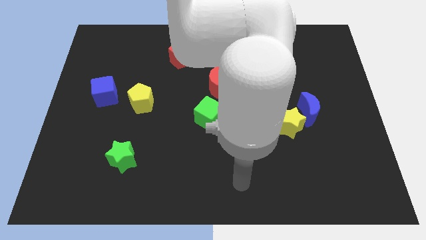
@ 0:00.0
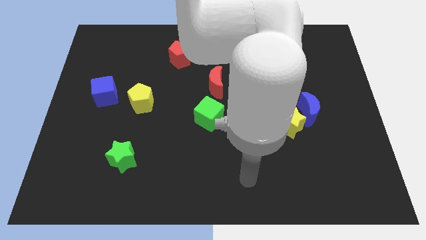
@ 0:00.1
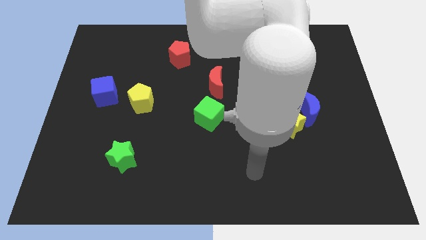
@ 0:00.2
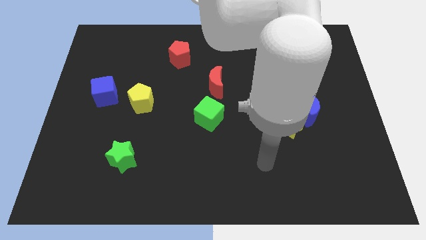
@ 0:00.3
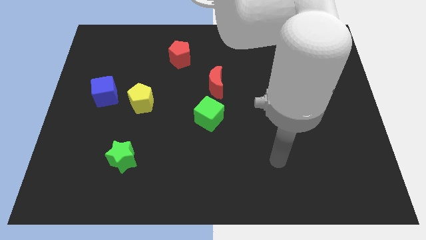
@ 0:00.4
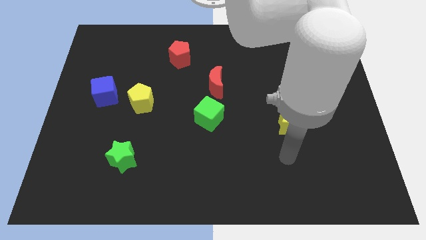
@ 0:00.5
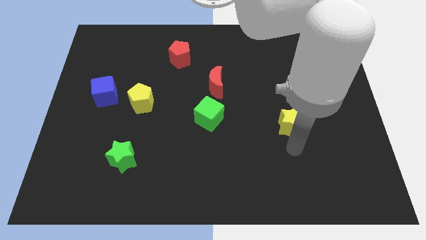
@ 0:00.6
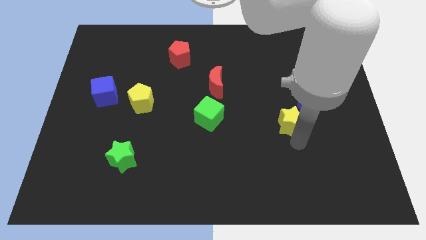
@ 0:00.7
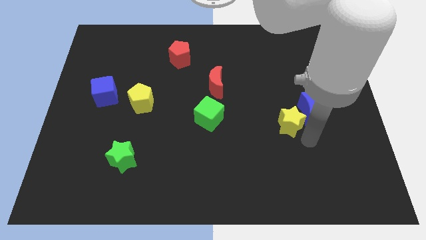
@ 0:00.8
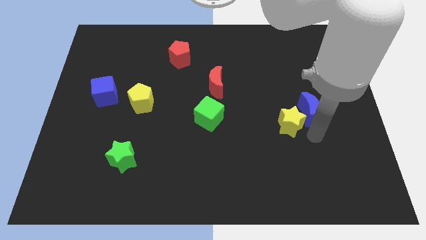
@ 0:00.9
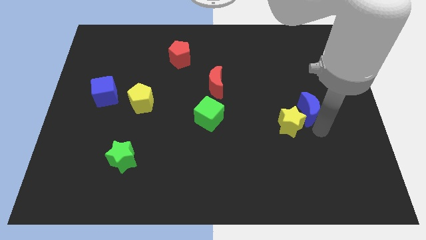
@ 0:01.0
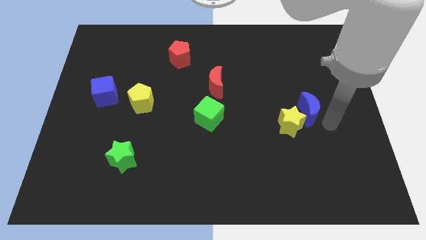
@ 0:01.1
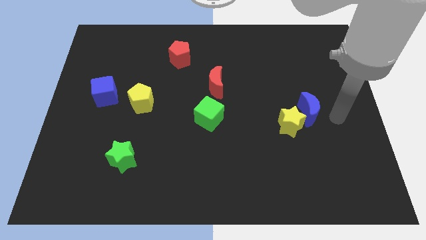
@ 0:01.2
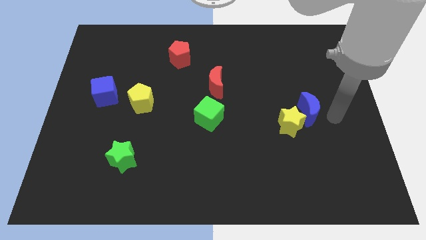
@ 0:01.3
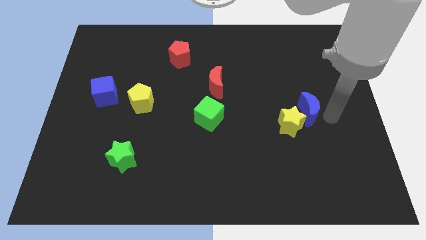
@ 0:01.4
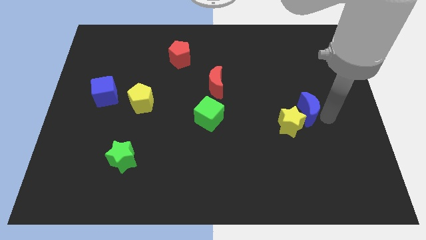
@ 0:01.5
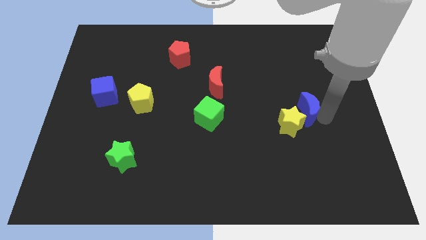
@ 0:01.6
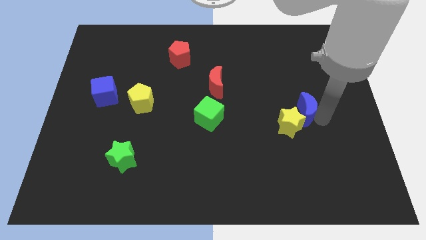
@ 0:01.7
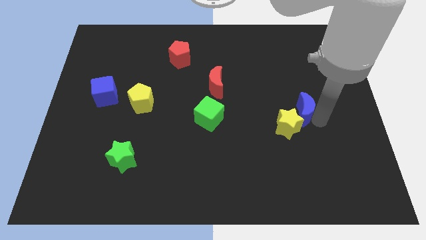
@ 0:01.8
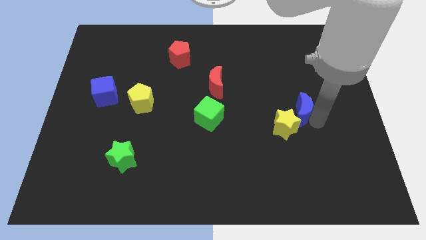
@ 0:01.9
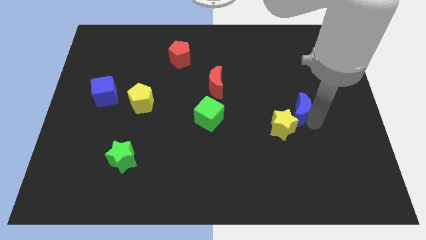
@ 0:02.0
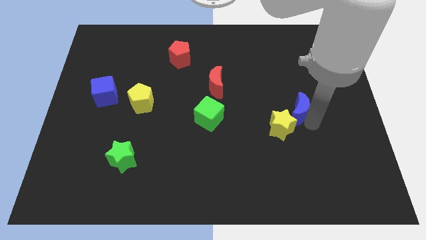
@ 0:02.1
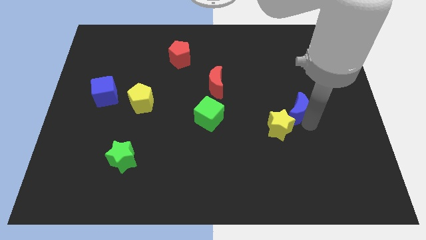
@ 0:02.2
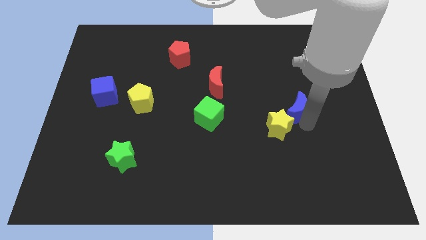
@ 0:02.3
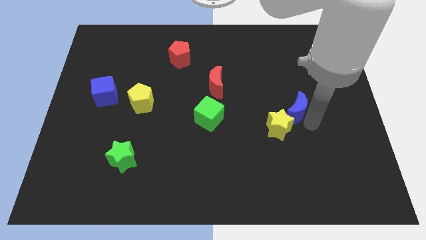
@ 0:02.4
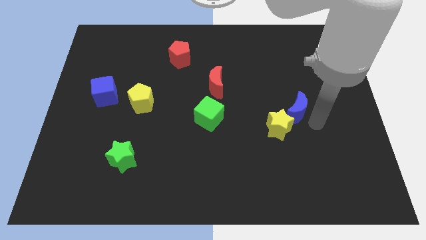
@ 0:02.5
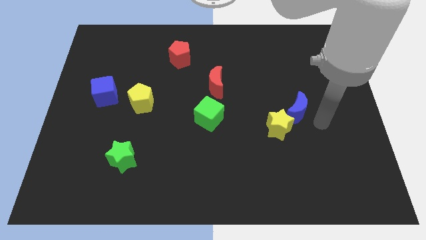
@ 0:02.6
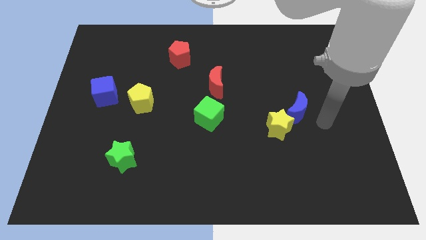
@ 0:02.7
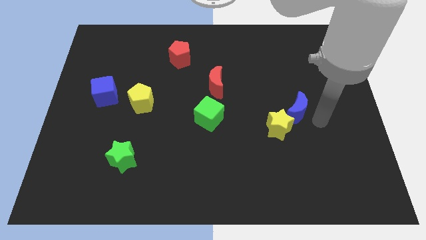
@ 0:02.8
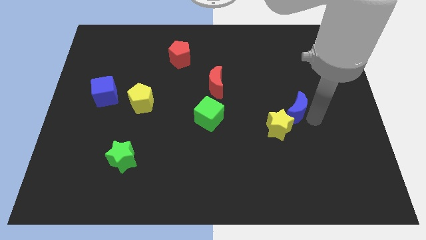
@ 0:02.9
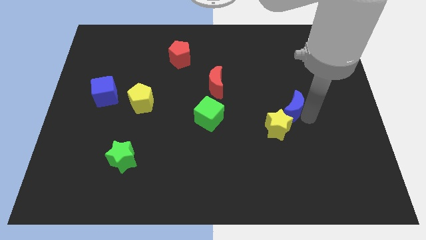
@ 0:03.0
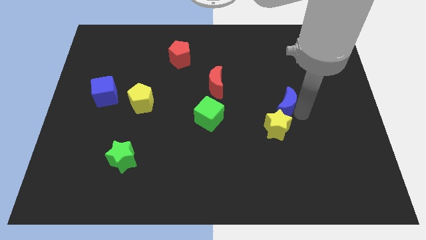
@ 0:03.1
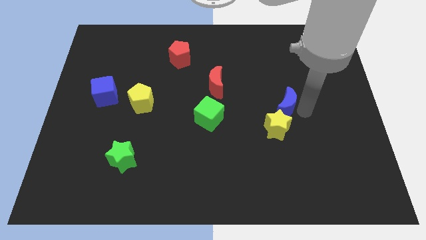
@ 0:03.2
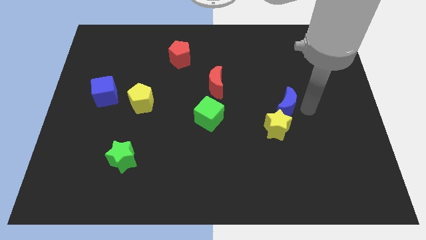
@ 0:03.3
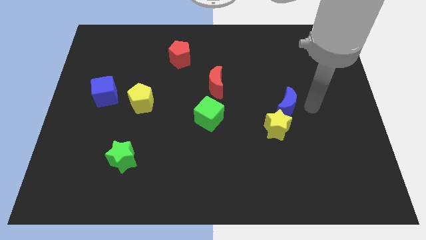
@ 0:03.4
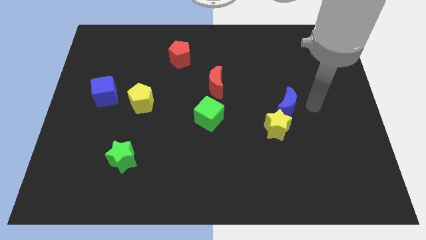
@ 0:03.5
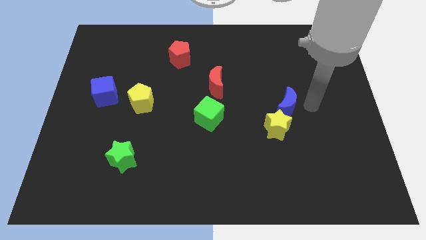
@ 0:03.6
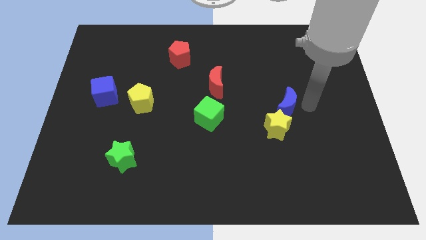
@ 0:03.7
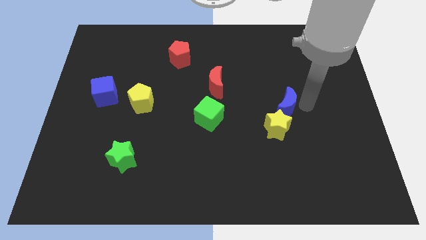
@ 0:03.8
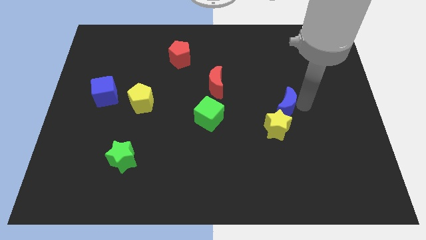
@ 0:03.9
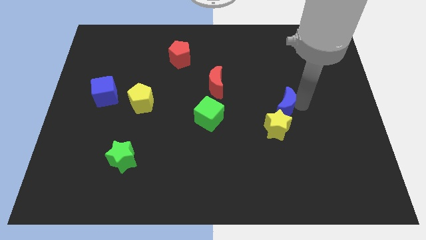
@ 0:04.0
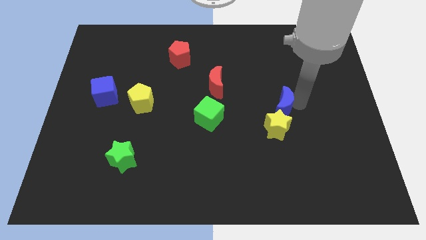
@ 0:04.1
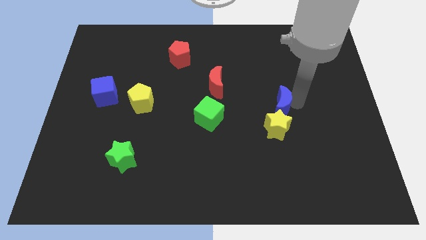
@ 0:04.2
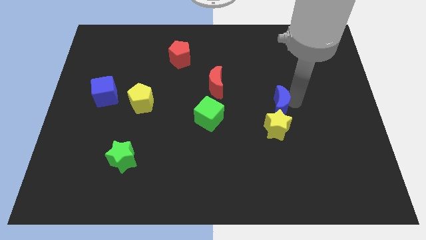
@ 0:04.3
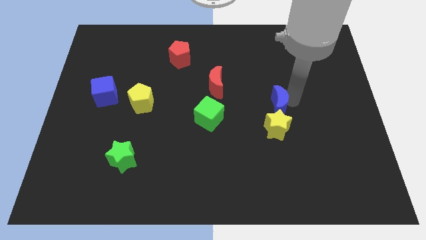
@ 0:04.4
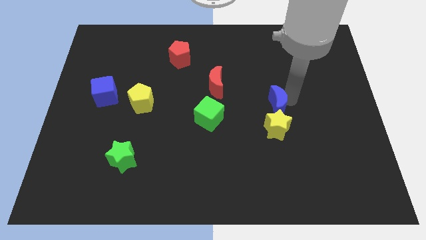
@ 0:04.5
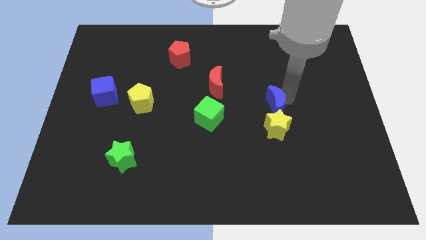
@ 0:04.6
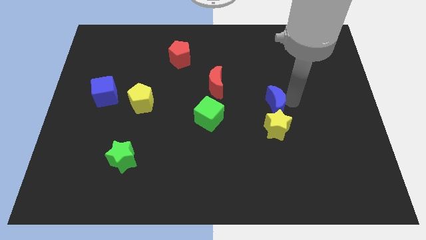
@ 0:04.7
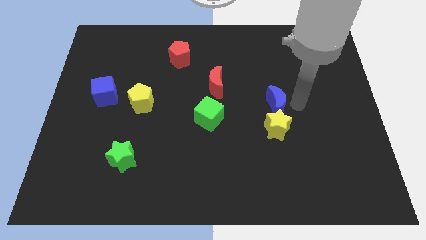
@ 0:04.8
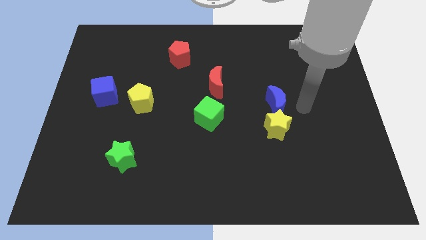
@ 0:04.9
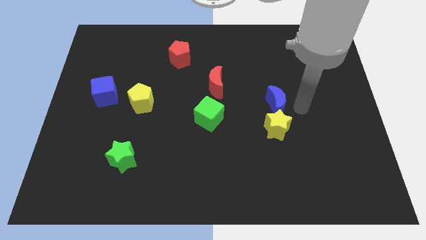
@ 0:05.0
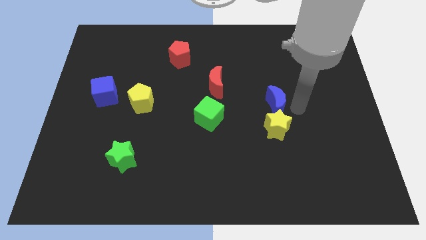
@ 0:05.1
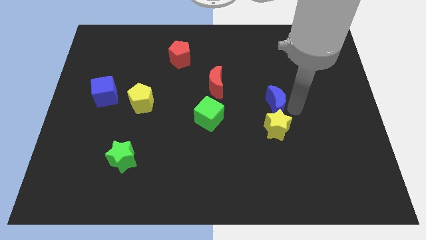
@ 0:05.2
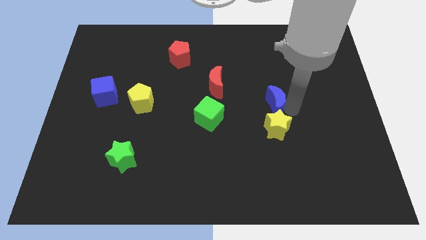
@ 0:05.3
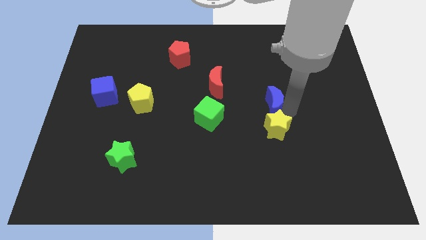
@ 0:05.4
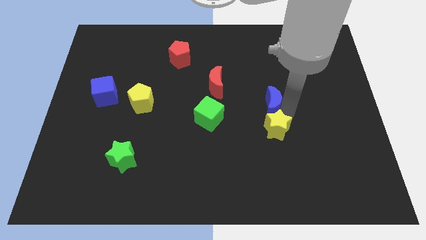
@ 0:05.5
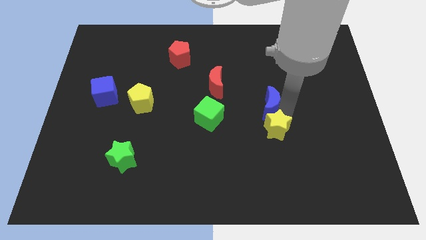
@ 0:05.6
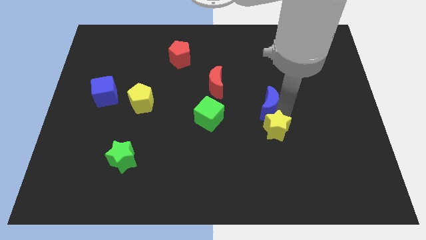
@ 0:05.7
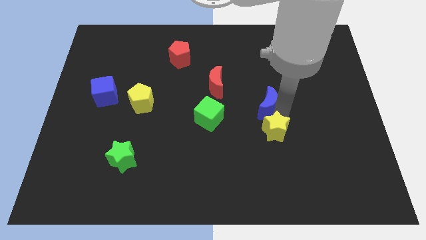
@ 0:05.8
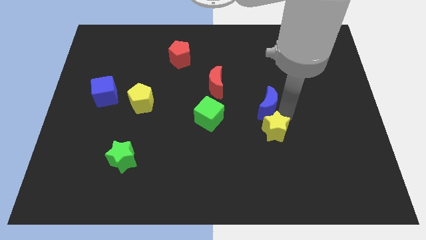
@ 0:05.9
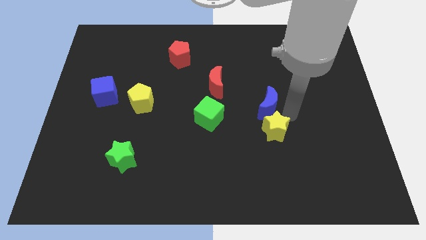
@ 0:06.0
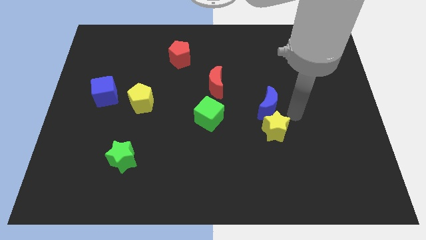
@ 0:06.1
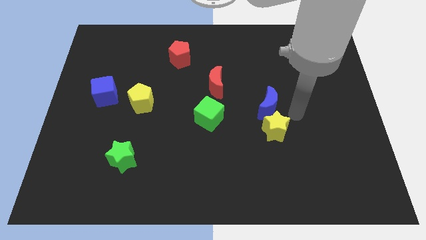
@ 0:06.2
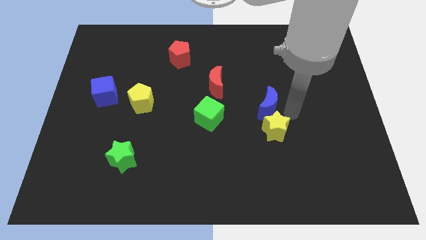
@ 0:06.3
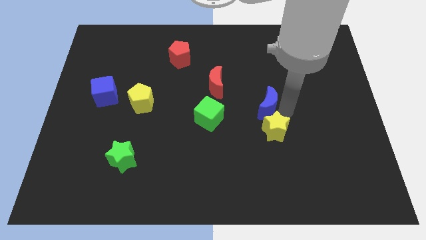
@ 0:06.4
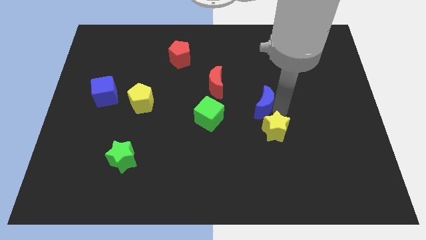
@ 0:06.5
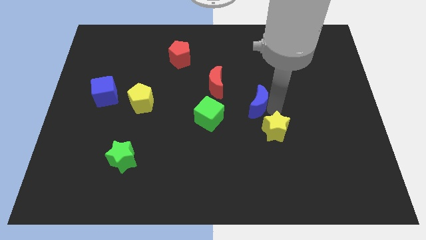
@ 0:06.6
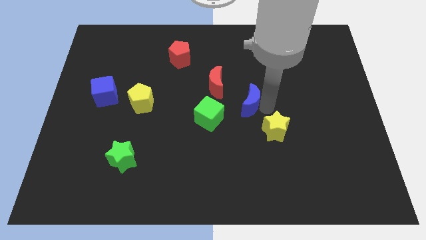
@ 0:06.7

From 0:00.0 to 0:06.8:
push the blue moon to the top right side of the green cube

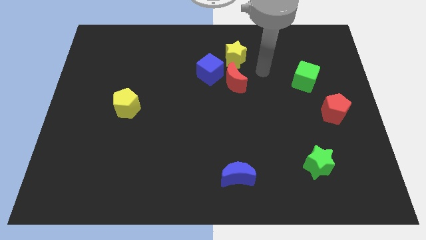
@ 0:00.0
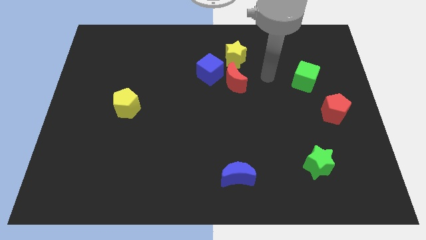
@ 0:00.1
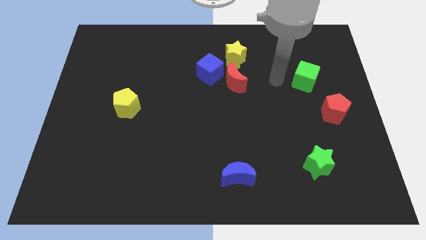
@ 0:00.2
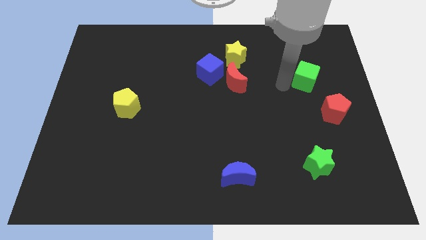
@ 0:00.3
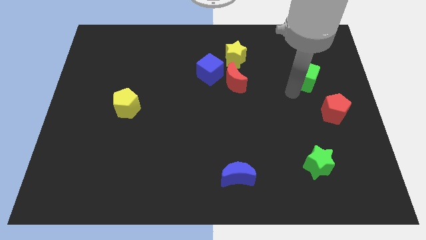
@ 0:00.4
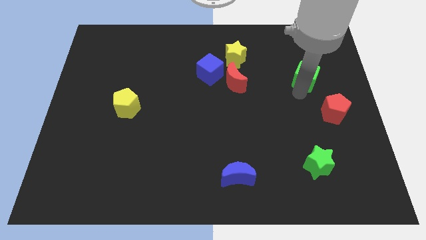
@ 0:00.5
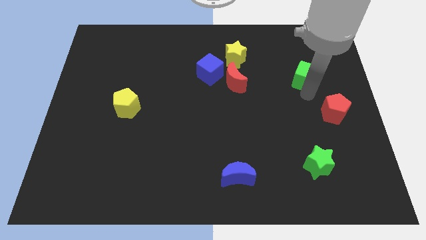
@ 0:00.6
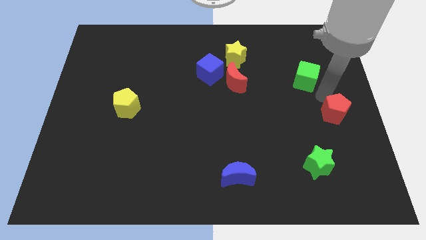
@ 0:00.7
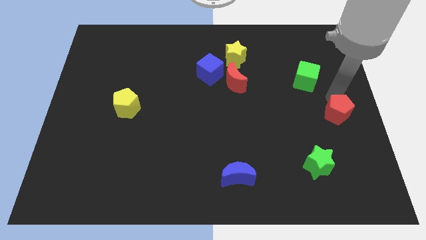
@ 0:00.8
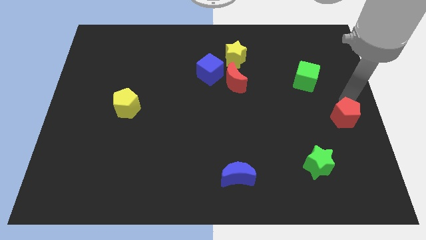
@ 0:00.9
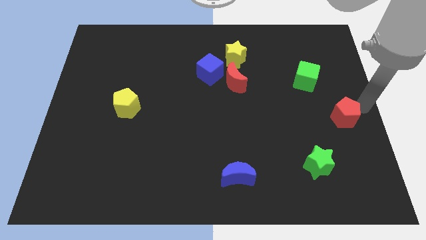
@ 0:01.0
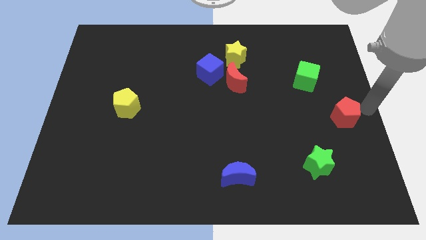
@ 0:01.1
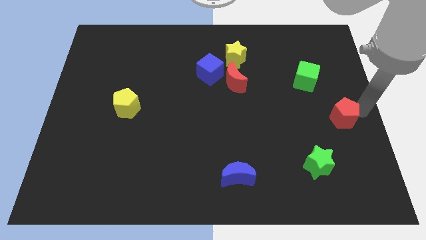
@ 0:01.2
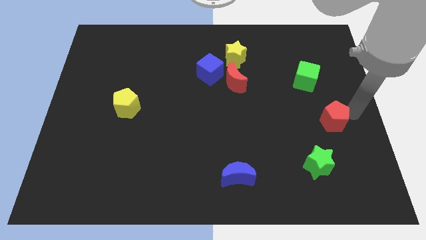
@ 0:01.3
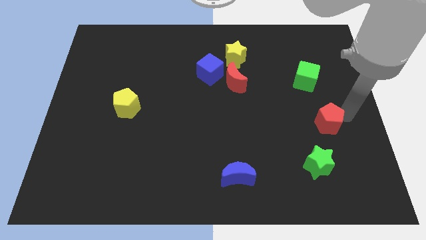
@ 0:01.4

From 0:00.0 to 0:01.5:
move the red pentagon above the green star
